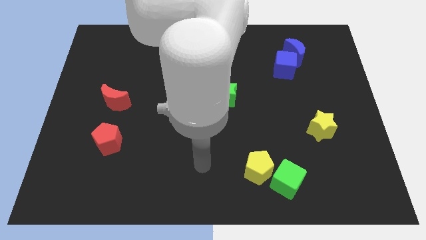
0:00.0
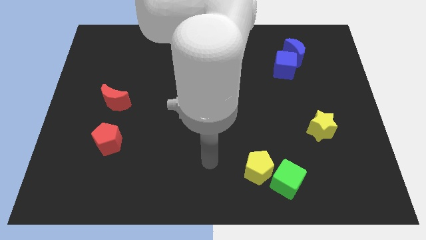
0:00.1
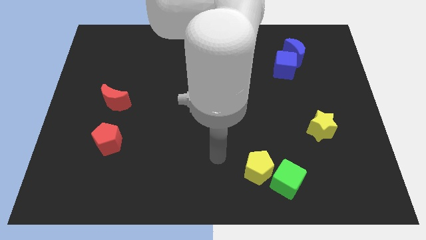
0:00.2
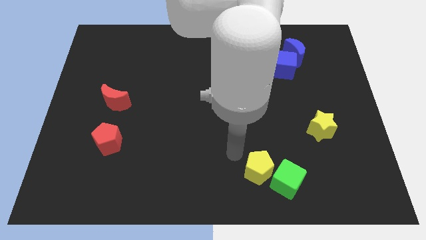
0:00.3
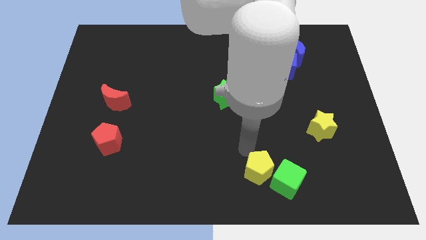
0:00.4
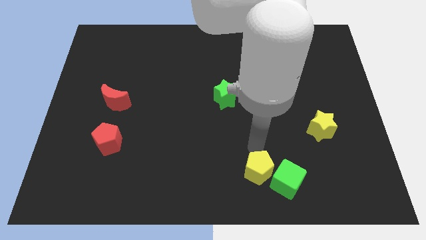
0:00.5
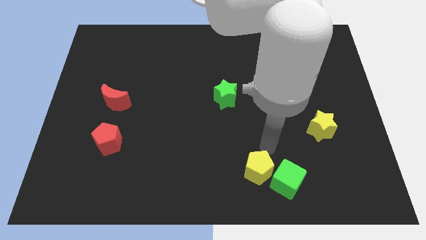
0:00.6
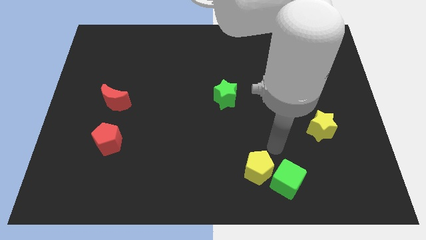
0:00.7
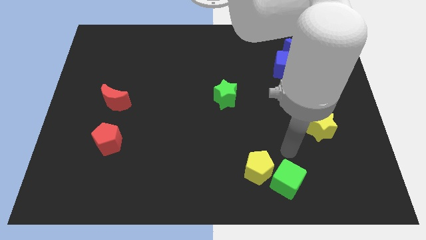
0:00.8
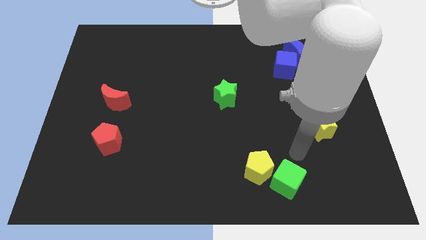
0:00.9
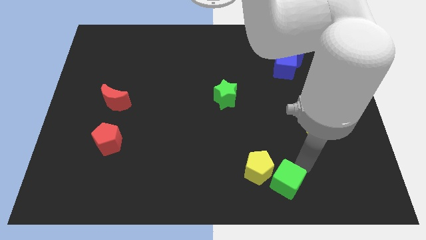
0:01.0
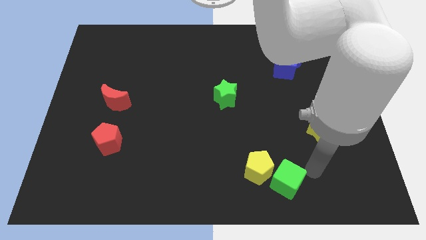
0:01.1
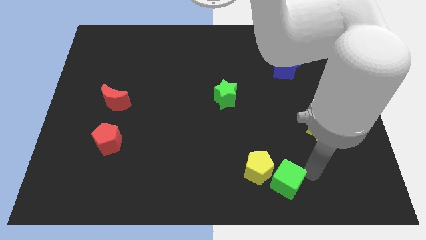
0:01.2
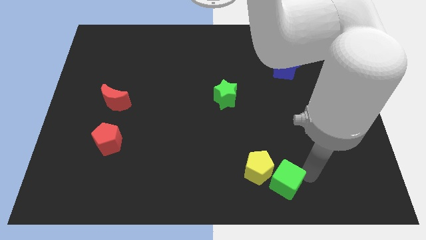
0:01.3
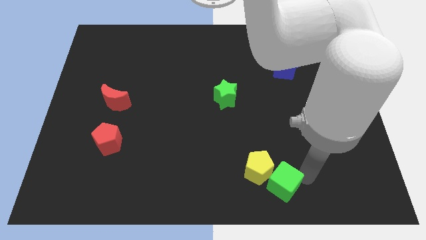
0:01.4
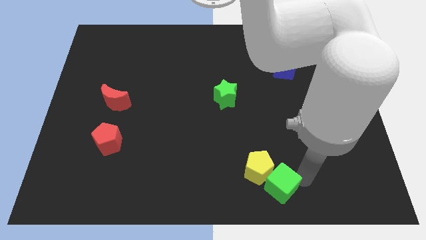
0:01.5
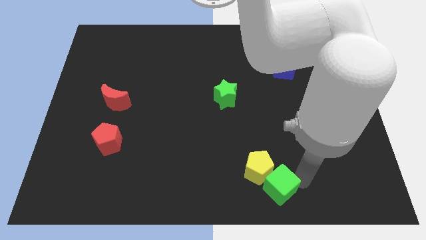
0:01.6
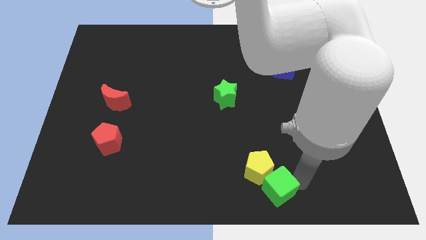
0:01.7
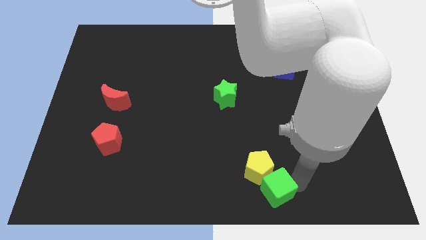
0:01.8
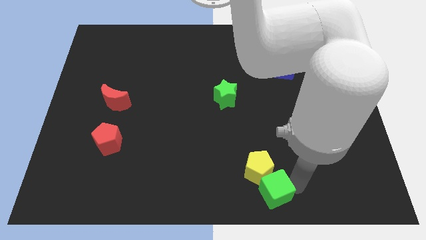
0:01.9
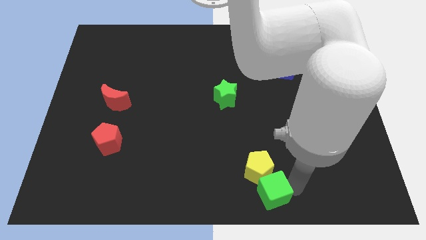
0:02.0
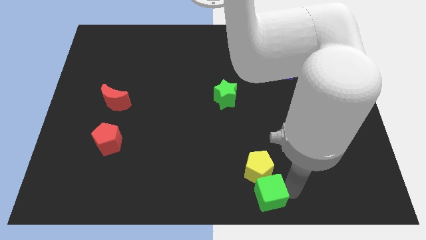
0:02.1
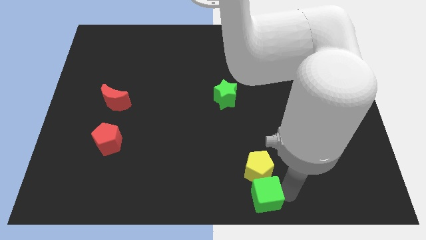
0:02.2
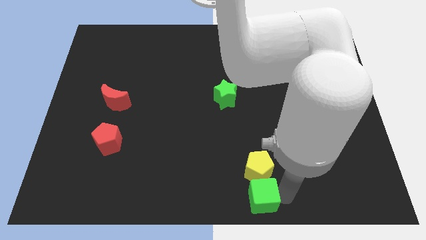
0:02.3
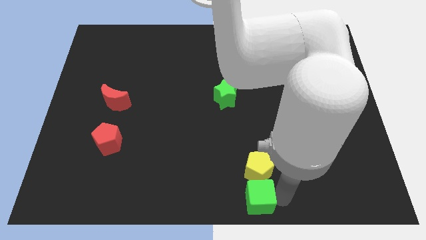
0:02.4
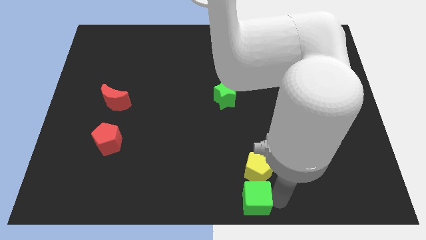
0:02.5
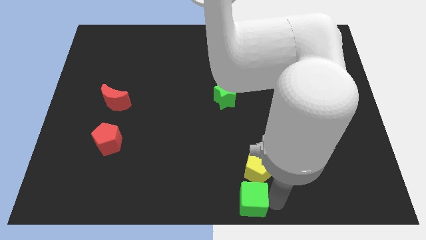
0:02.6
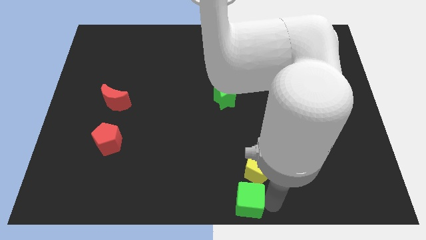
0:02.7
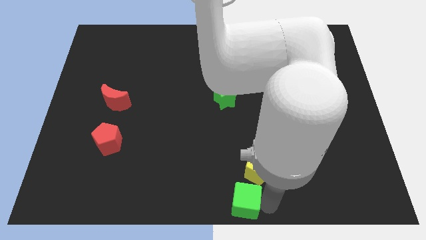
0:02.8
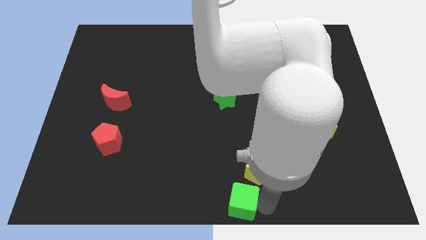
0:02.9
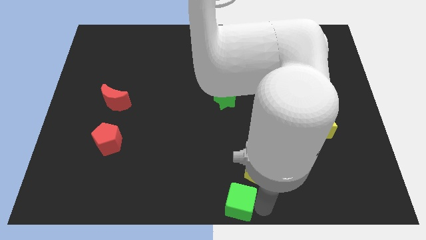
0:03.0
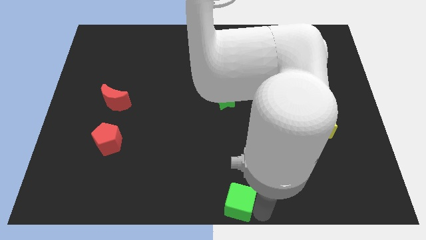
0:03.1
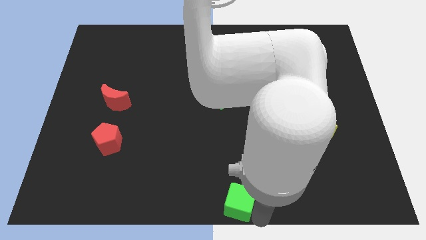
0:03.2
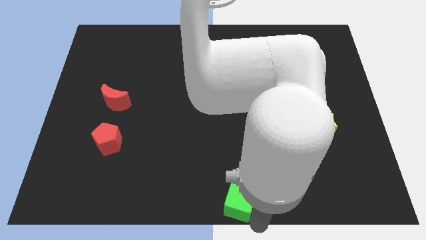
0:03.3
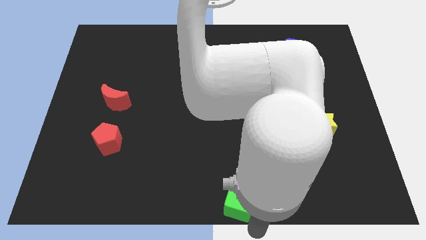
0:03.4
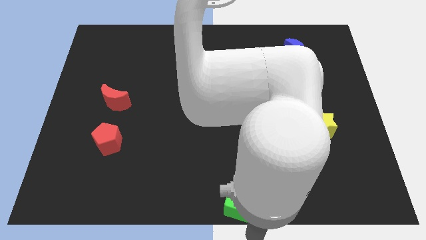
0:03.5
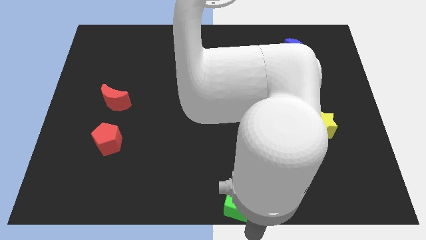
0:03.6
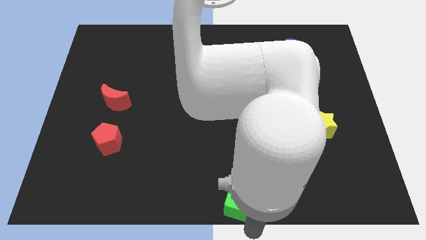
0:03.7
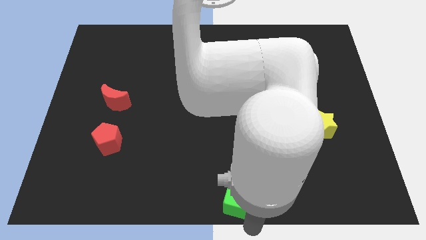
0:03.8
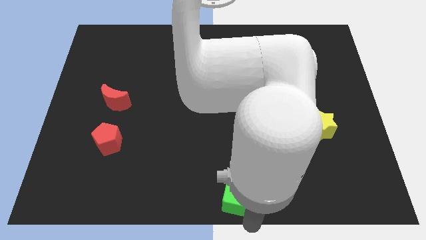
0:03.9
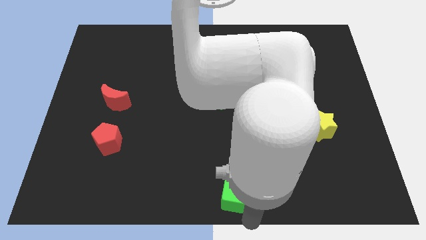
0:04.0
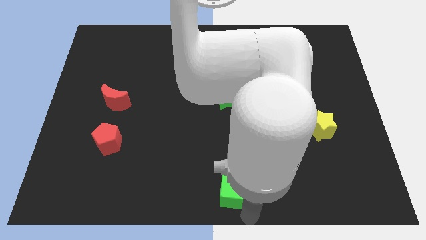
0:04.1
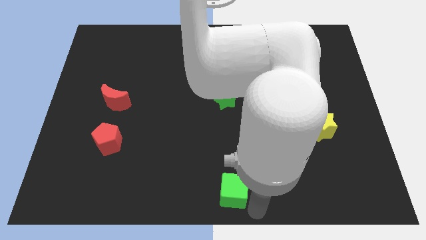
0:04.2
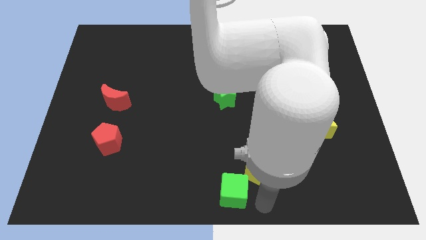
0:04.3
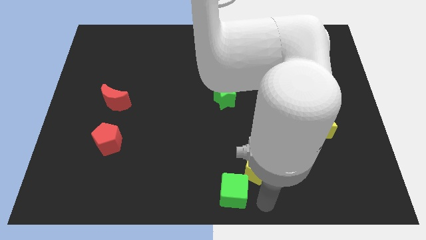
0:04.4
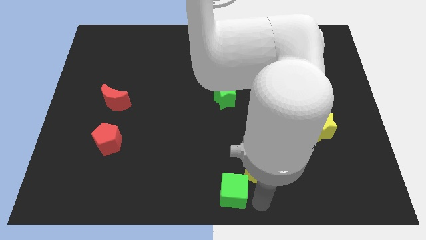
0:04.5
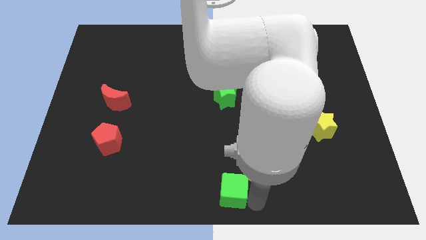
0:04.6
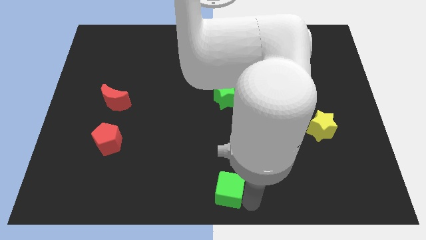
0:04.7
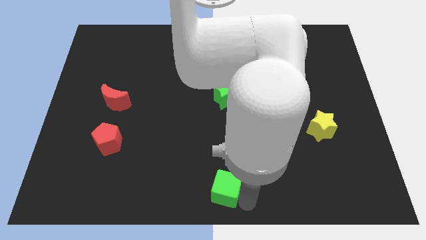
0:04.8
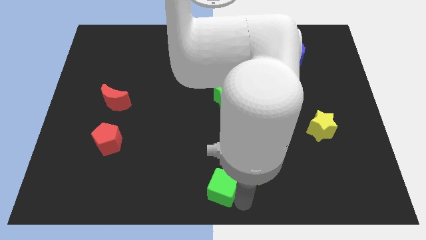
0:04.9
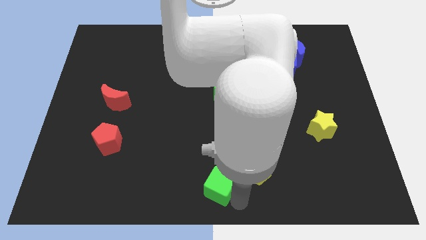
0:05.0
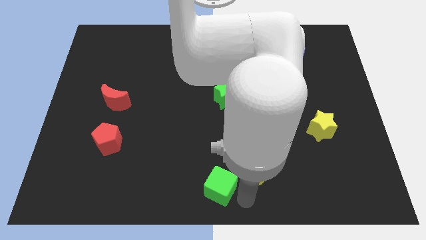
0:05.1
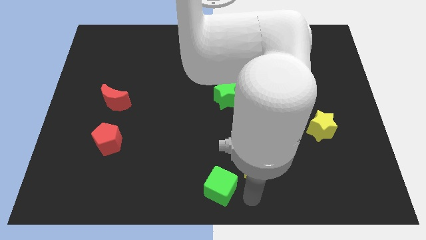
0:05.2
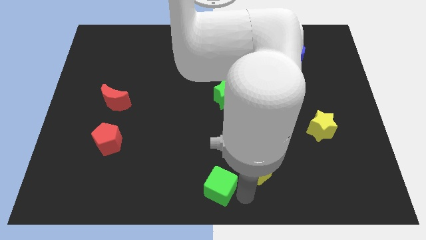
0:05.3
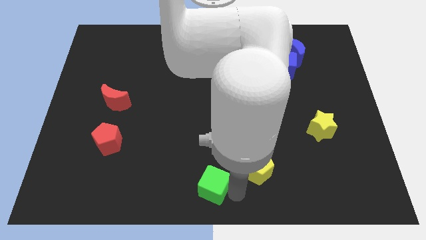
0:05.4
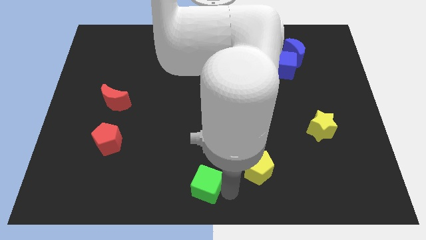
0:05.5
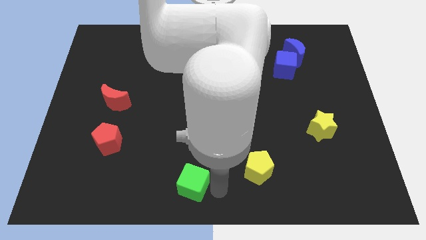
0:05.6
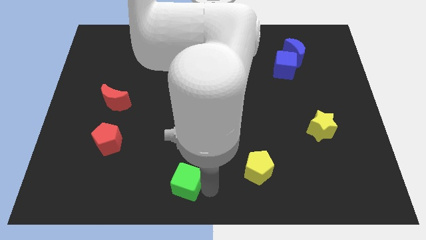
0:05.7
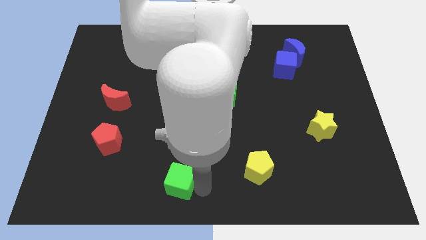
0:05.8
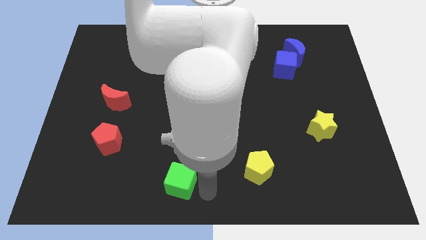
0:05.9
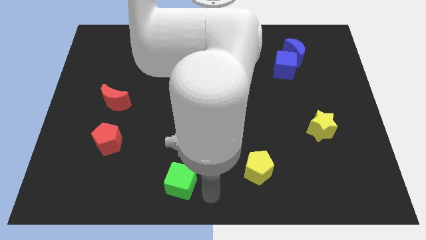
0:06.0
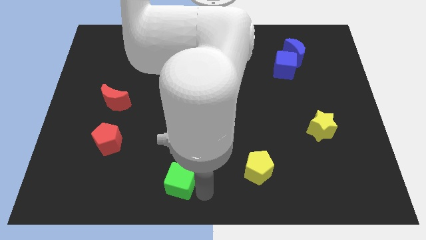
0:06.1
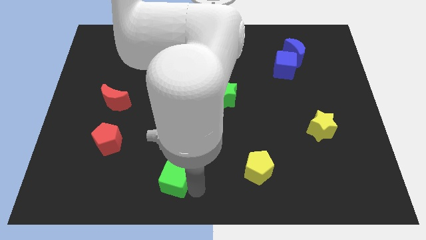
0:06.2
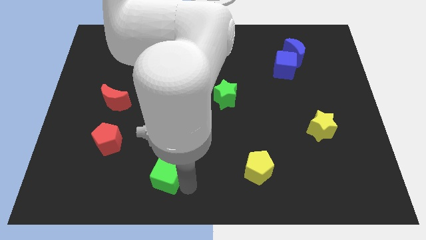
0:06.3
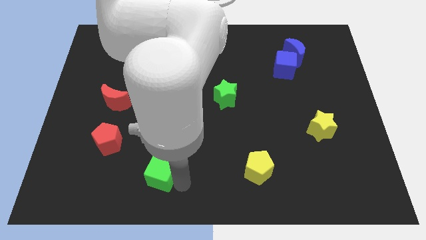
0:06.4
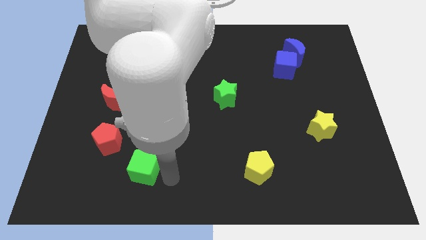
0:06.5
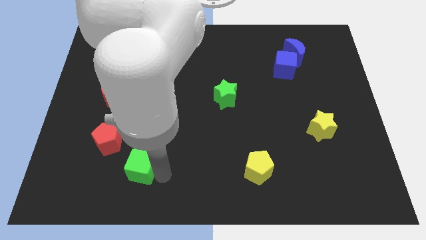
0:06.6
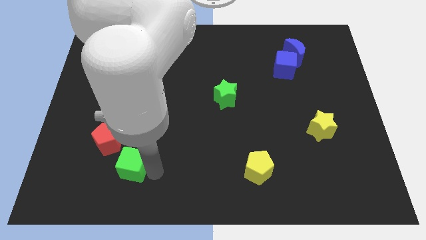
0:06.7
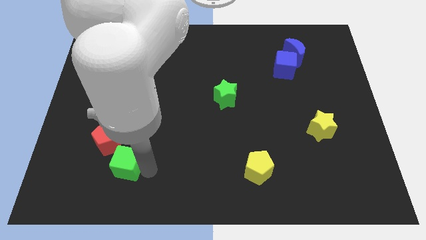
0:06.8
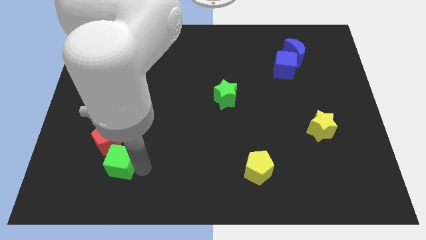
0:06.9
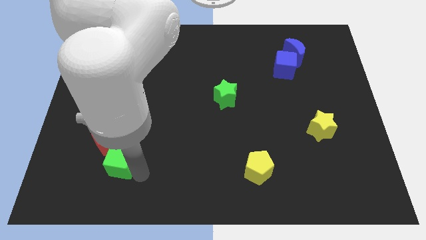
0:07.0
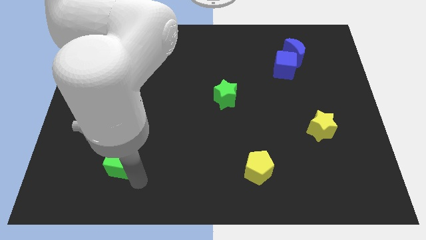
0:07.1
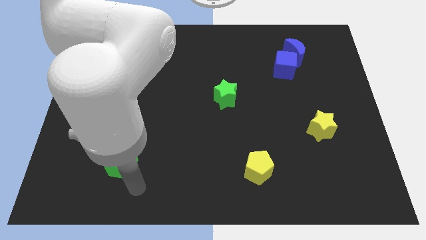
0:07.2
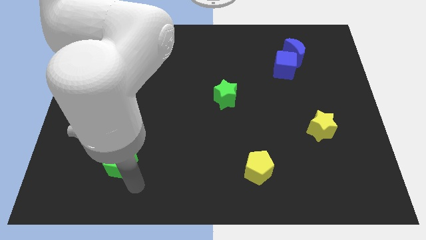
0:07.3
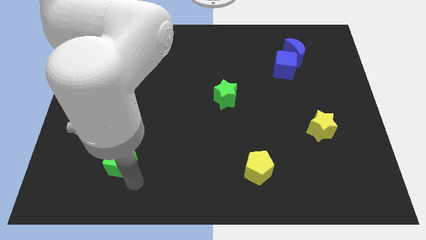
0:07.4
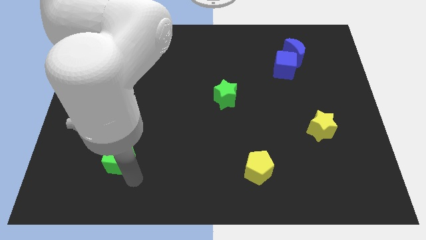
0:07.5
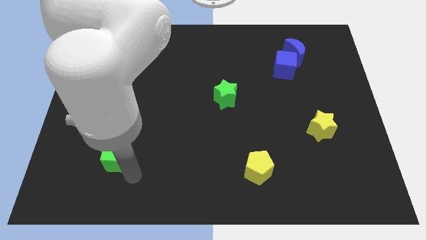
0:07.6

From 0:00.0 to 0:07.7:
slide the green cube below the red moon
